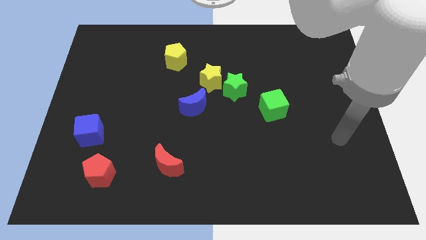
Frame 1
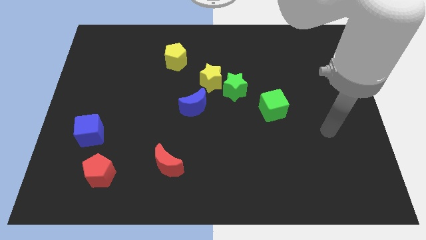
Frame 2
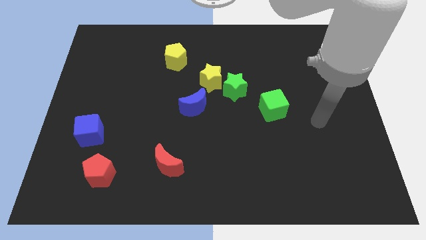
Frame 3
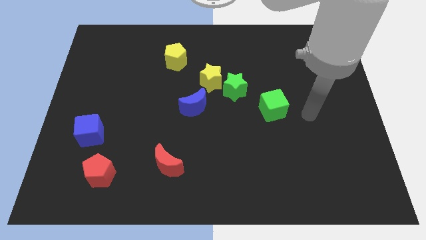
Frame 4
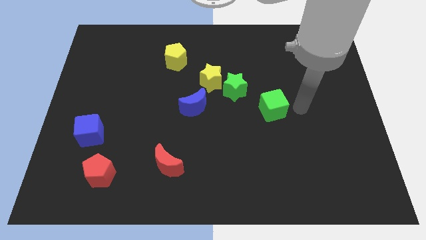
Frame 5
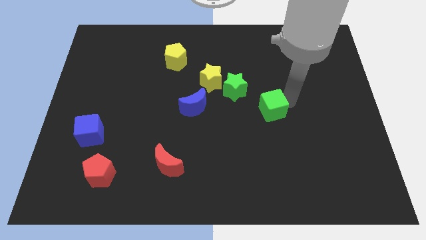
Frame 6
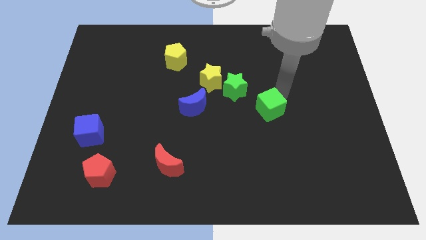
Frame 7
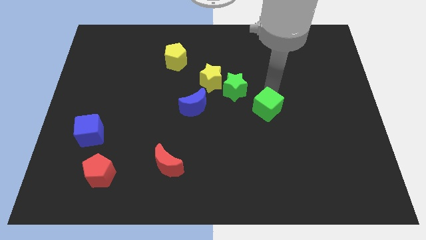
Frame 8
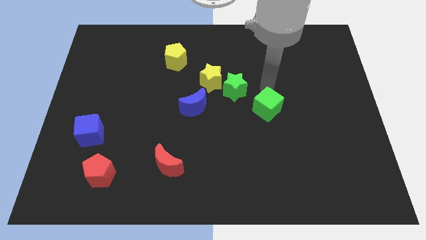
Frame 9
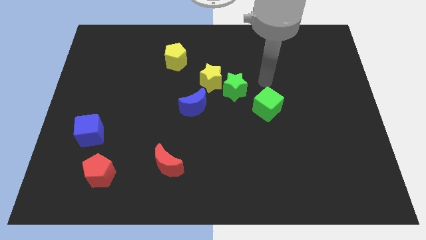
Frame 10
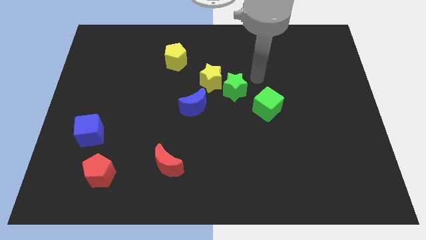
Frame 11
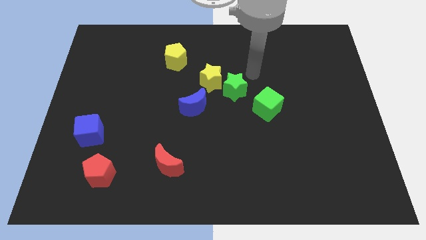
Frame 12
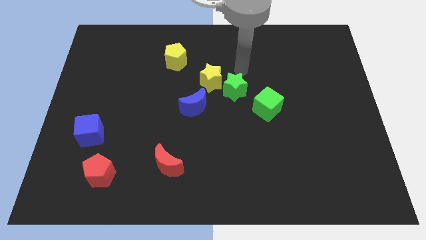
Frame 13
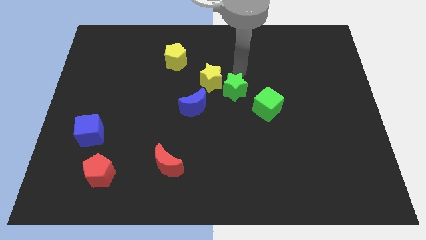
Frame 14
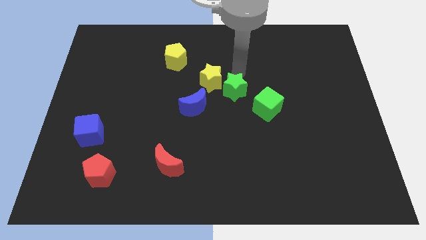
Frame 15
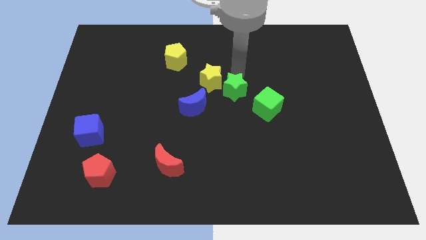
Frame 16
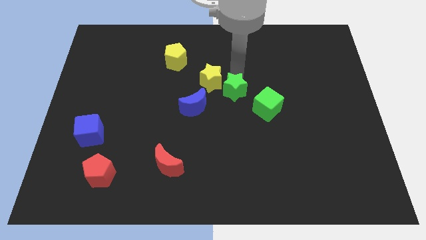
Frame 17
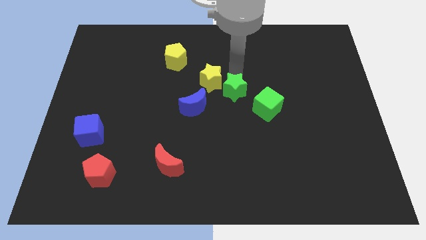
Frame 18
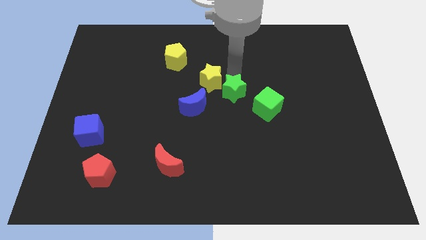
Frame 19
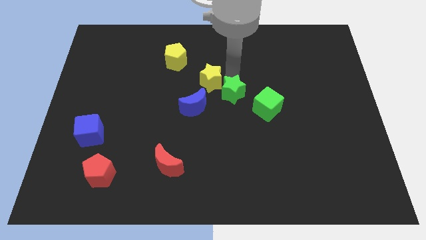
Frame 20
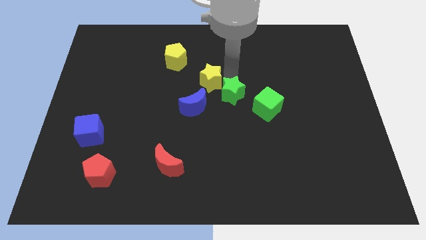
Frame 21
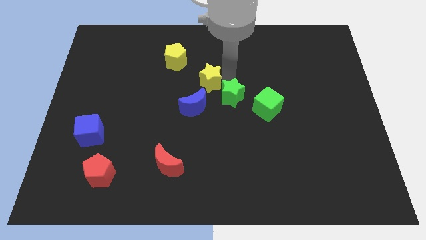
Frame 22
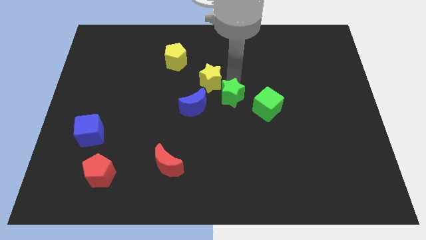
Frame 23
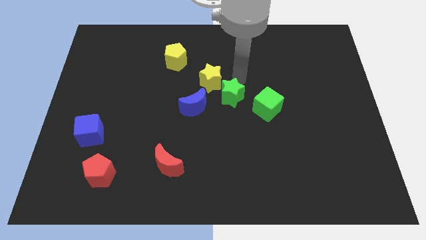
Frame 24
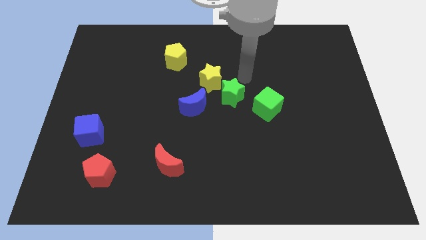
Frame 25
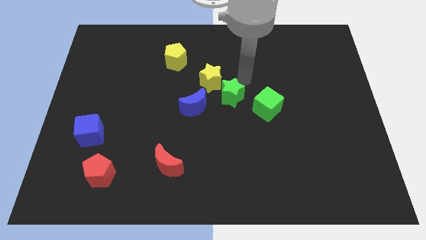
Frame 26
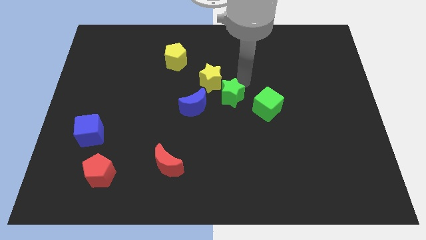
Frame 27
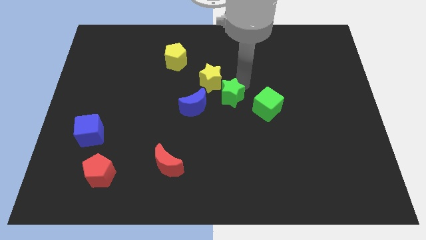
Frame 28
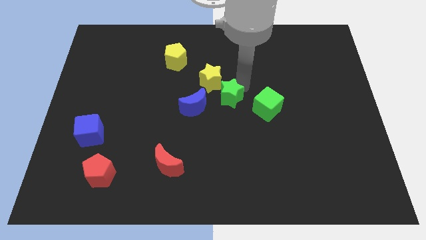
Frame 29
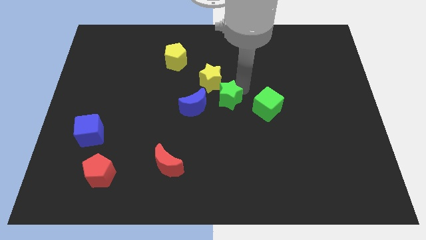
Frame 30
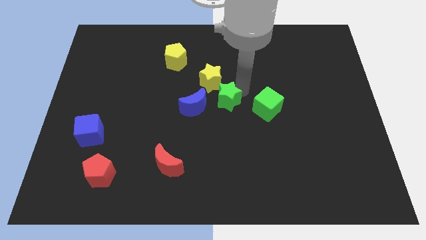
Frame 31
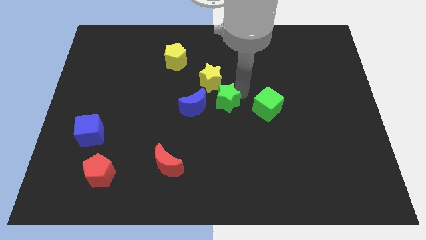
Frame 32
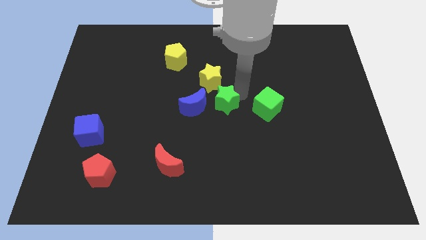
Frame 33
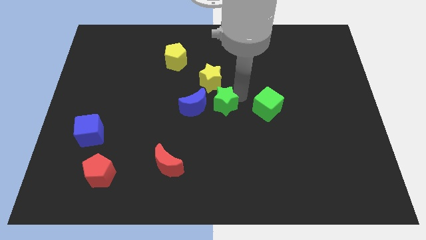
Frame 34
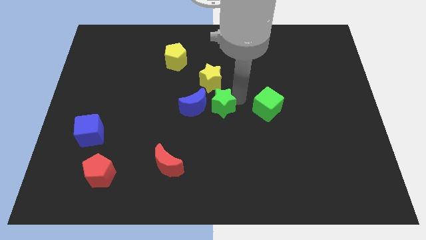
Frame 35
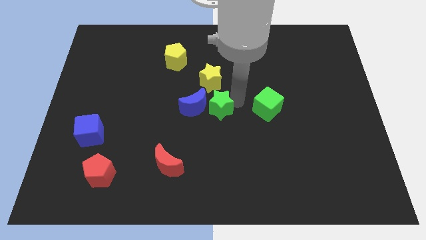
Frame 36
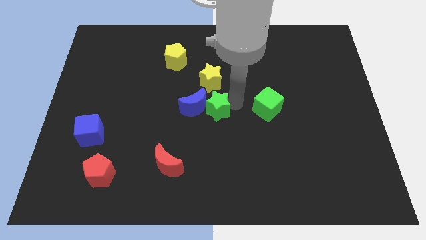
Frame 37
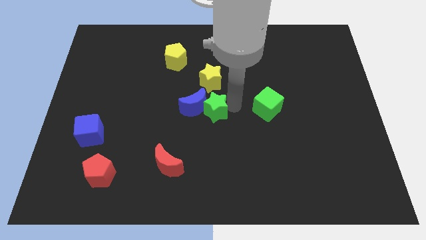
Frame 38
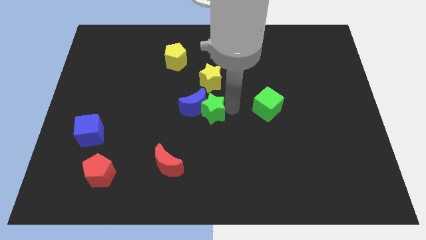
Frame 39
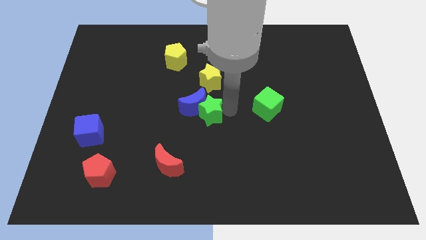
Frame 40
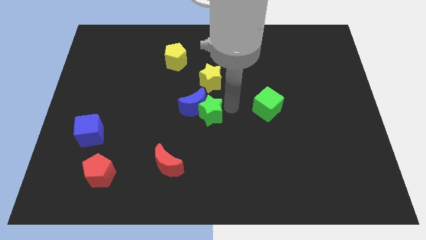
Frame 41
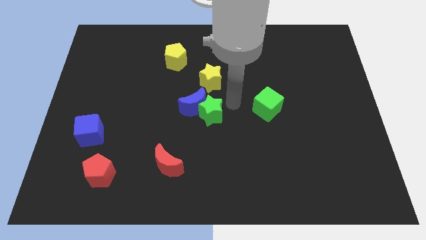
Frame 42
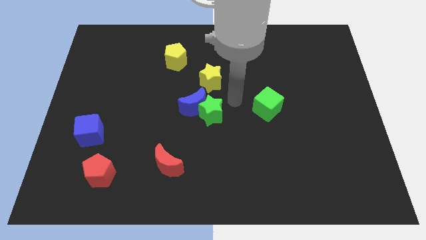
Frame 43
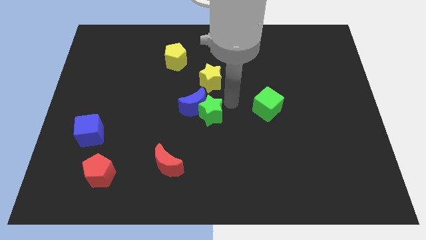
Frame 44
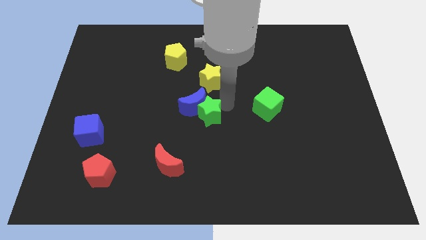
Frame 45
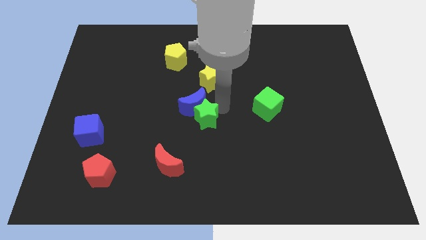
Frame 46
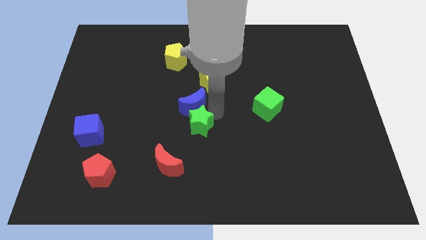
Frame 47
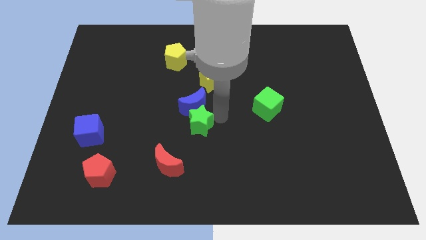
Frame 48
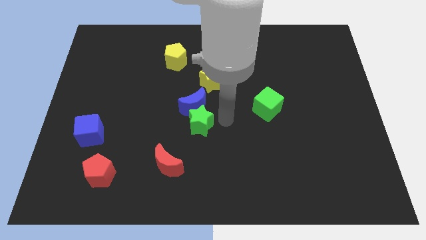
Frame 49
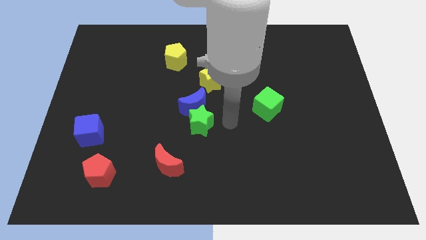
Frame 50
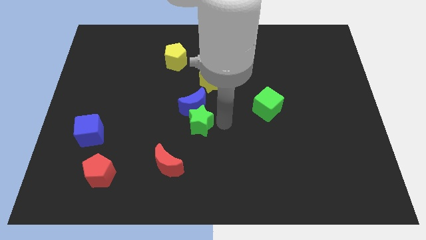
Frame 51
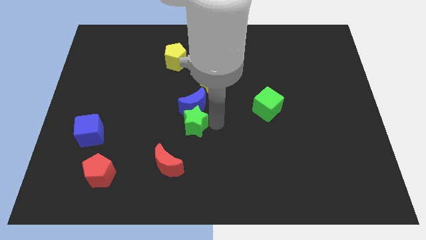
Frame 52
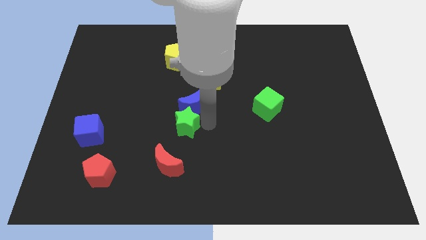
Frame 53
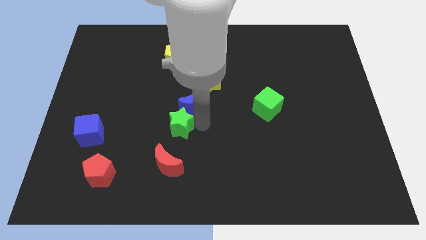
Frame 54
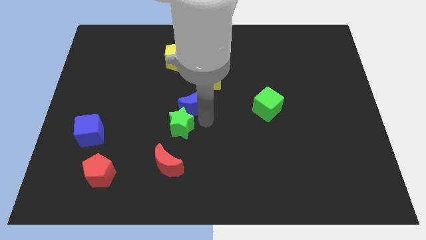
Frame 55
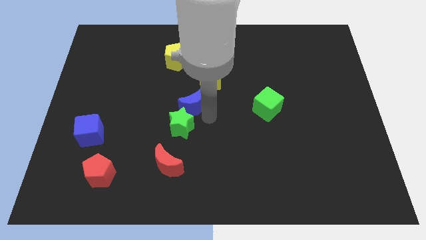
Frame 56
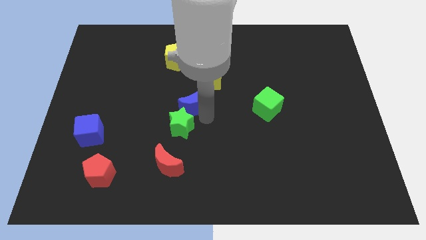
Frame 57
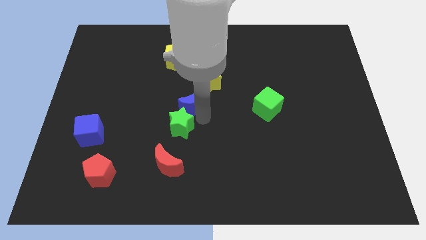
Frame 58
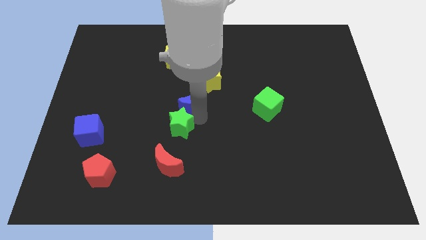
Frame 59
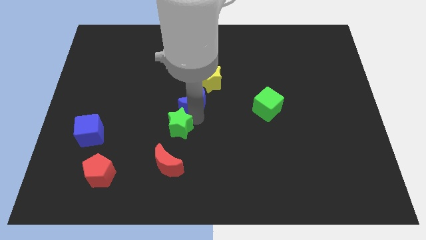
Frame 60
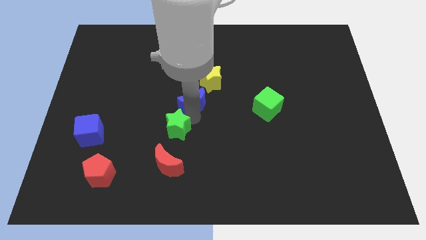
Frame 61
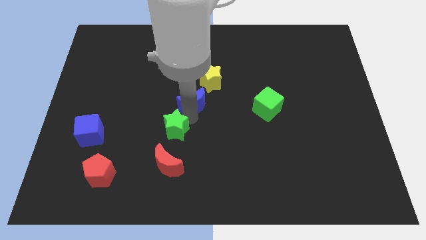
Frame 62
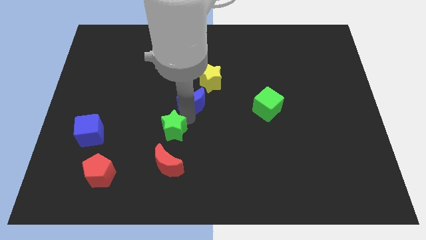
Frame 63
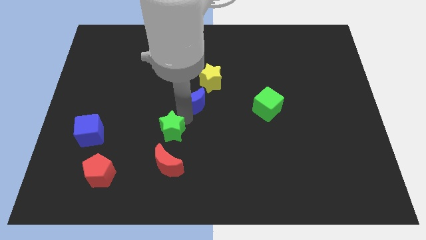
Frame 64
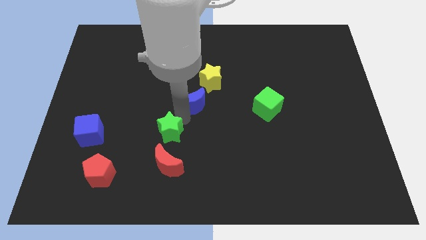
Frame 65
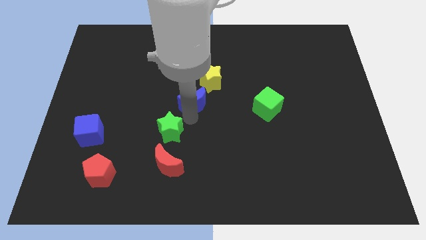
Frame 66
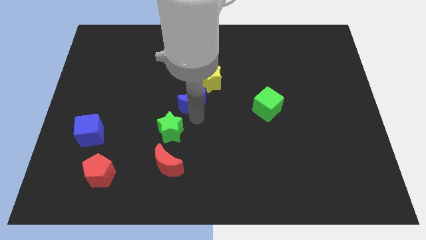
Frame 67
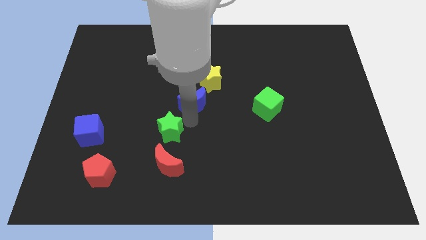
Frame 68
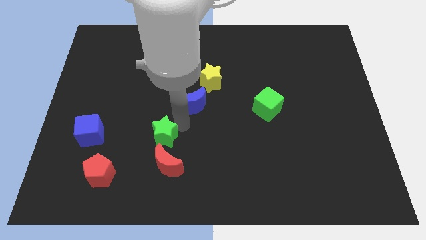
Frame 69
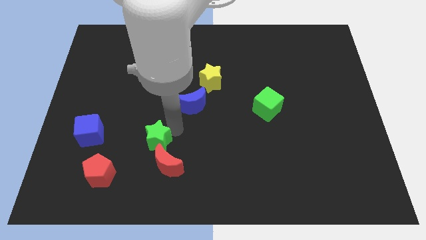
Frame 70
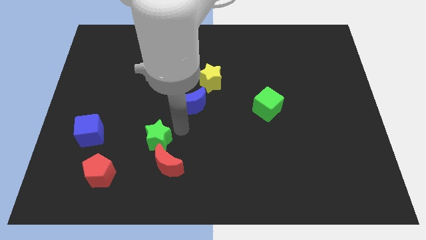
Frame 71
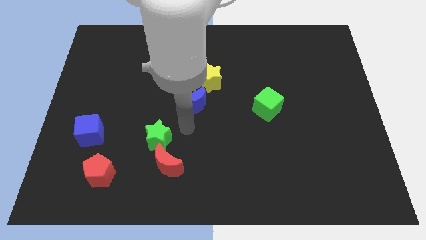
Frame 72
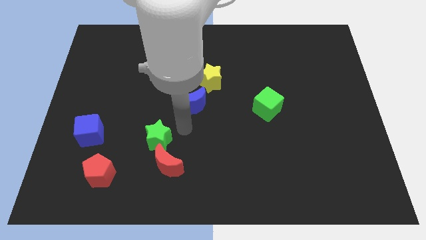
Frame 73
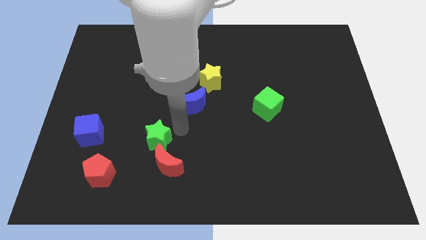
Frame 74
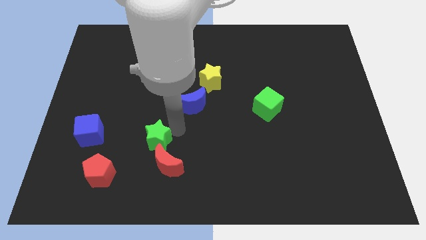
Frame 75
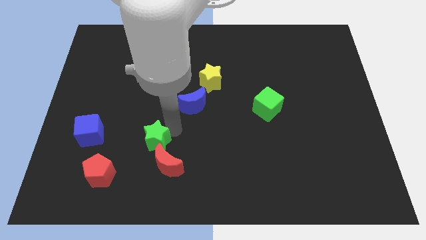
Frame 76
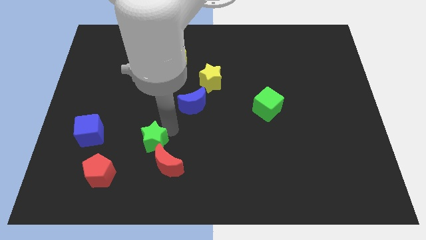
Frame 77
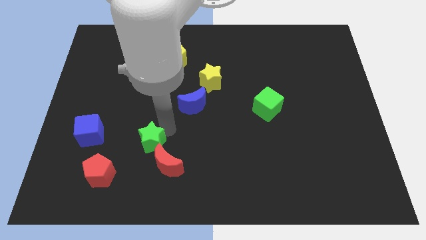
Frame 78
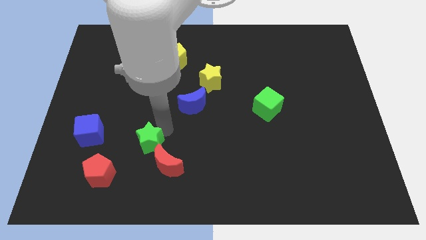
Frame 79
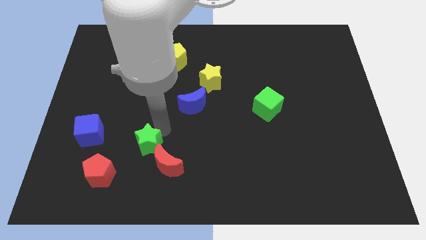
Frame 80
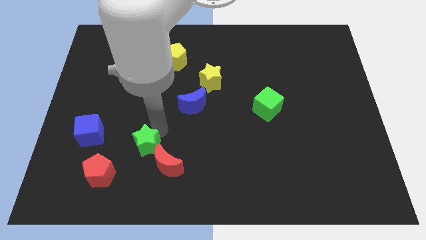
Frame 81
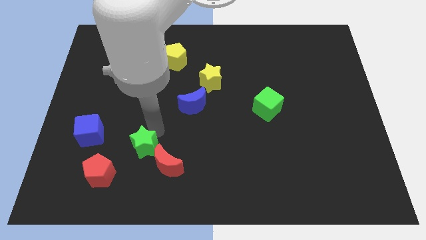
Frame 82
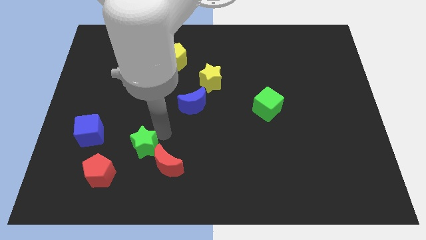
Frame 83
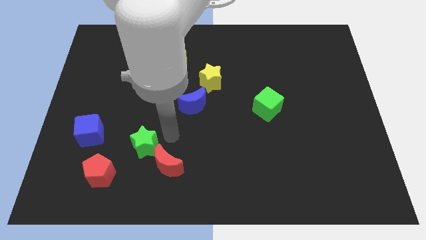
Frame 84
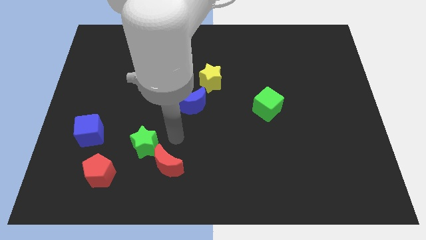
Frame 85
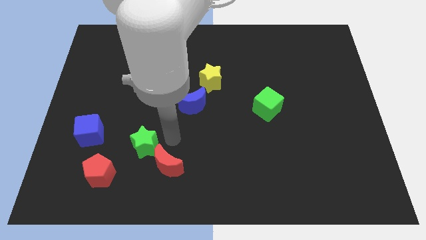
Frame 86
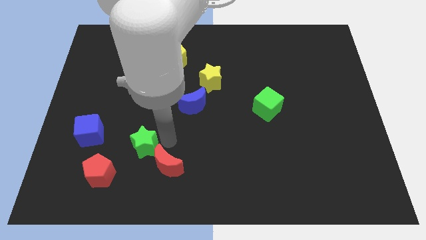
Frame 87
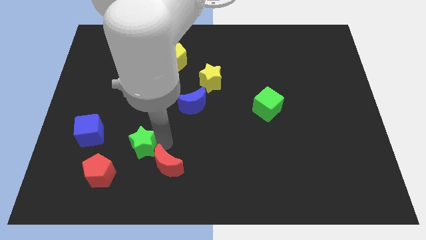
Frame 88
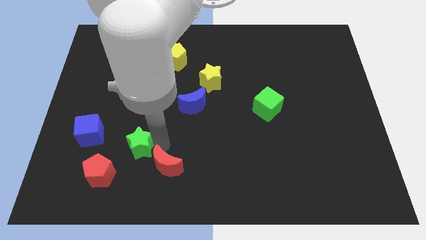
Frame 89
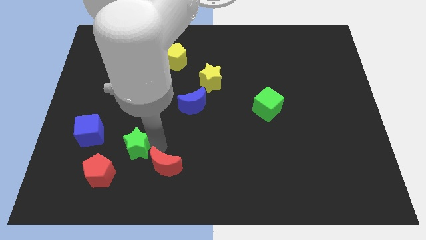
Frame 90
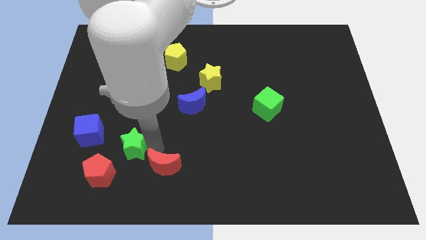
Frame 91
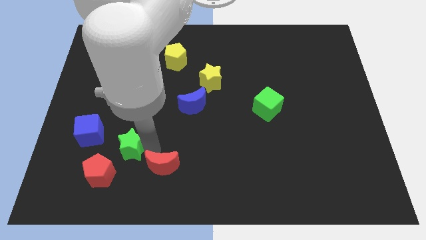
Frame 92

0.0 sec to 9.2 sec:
push the green star to the bottom right of the blue cube
